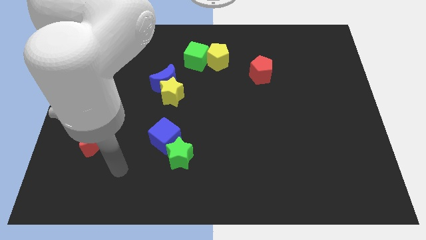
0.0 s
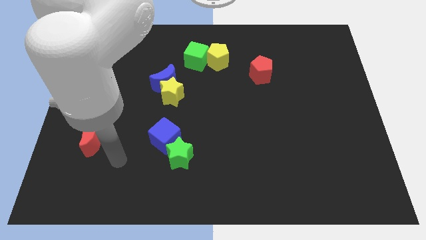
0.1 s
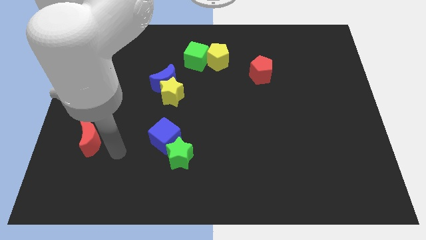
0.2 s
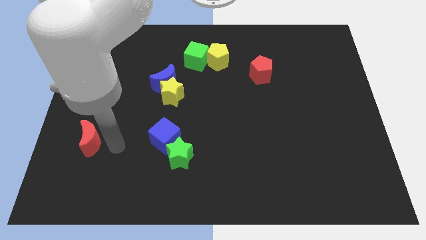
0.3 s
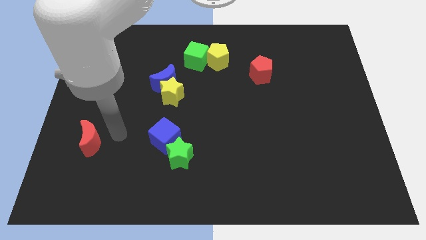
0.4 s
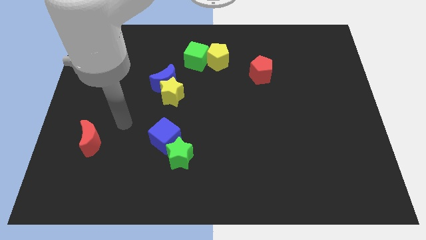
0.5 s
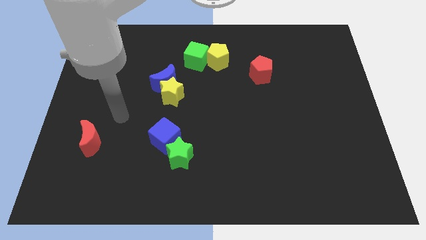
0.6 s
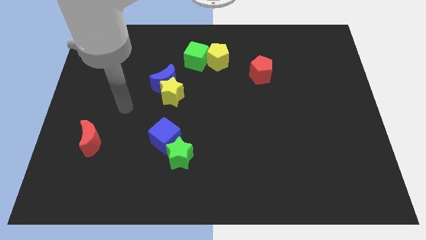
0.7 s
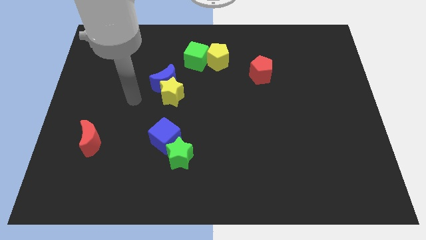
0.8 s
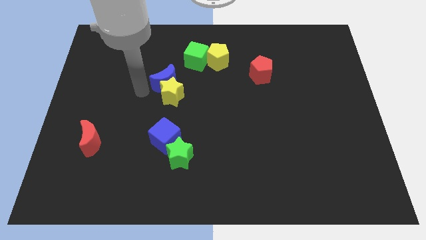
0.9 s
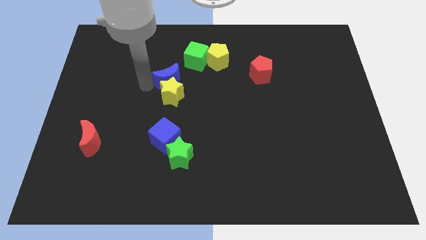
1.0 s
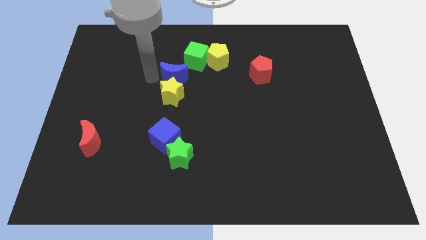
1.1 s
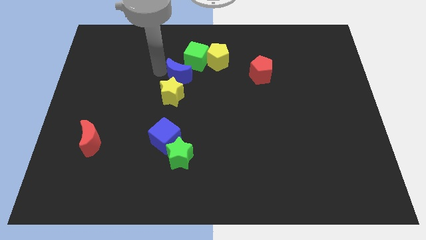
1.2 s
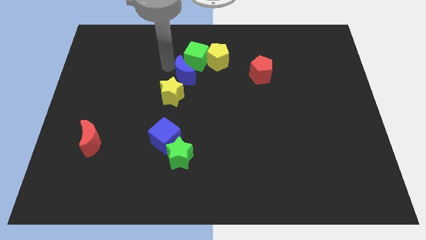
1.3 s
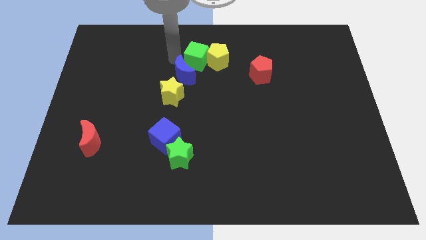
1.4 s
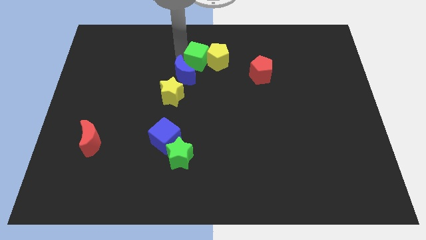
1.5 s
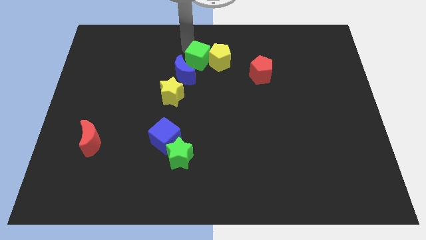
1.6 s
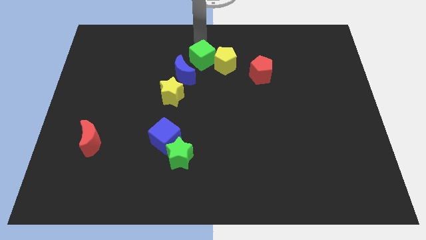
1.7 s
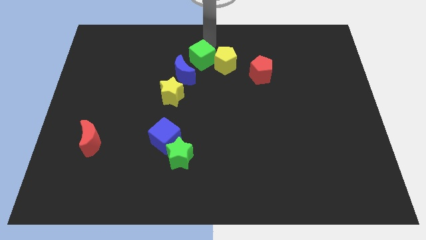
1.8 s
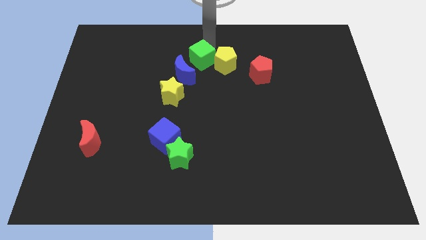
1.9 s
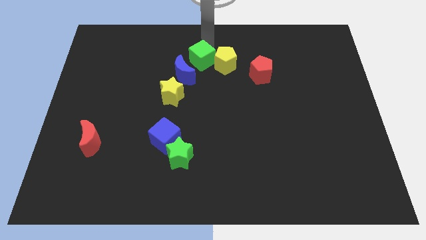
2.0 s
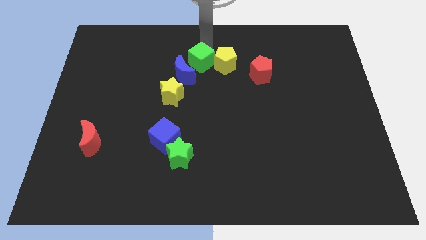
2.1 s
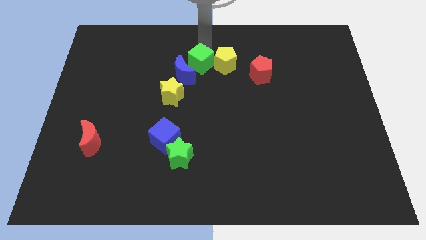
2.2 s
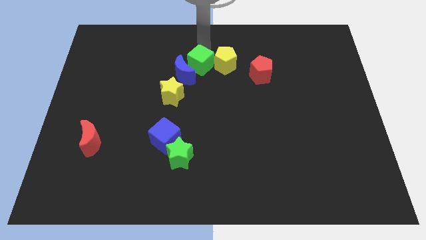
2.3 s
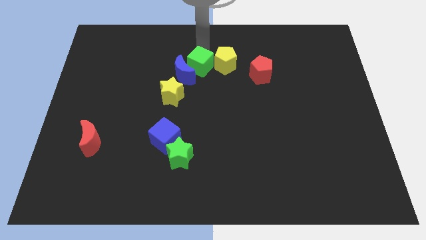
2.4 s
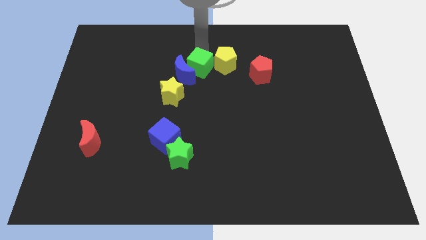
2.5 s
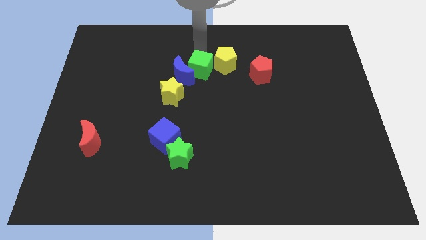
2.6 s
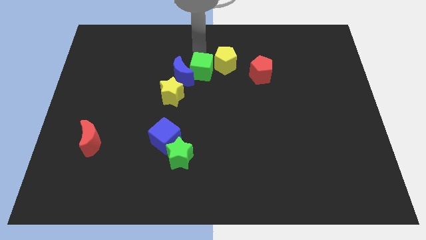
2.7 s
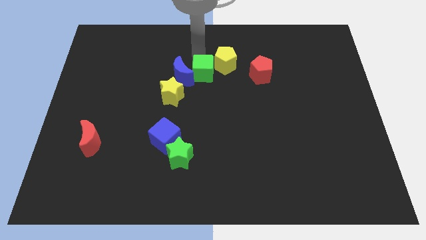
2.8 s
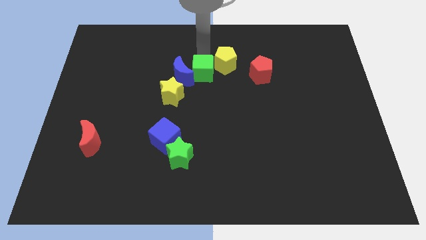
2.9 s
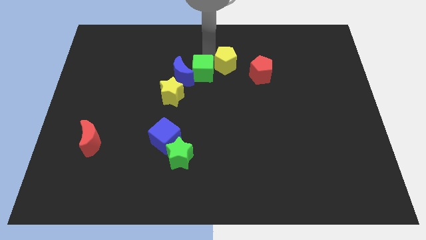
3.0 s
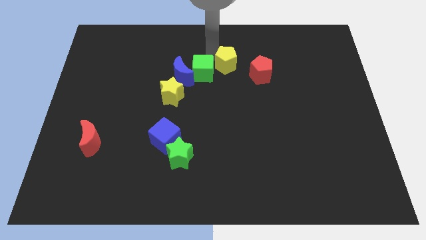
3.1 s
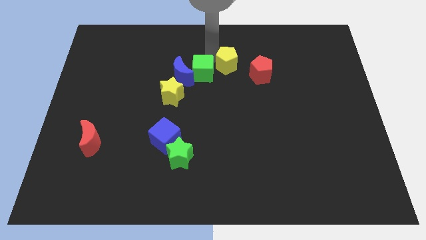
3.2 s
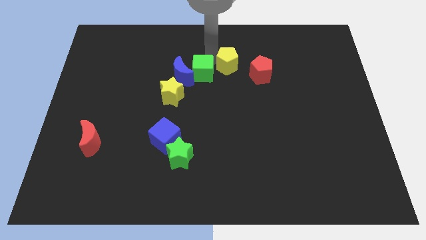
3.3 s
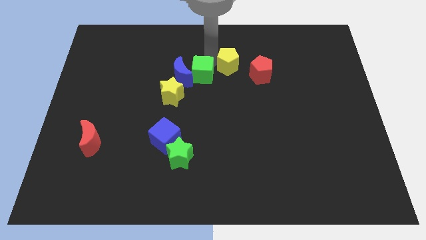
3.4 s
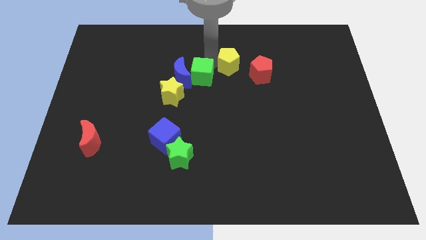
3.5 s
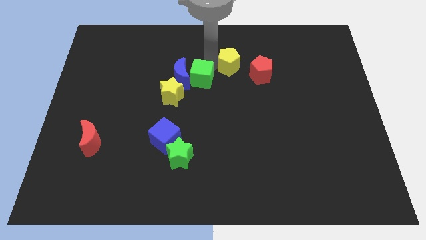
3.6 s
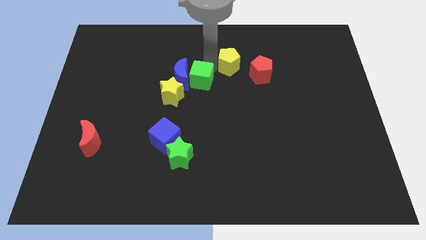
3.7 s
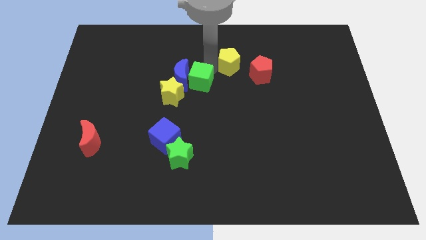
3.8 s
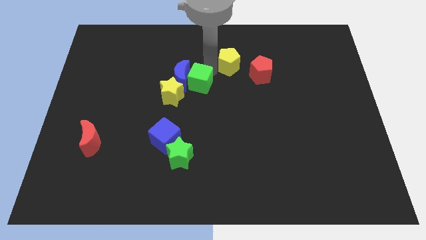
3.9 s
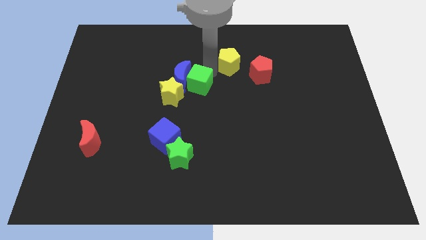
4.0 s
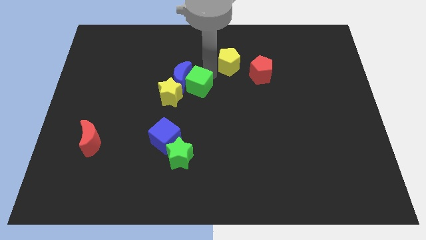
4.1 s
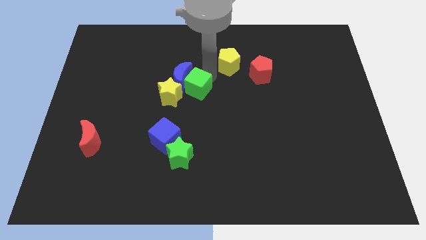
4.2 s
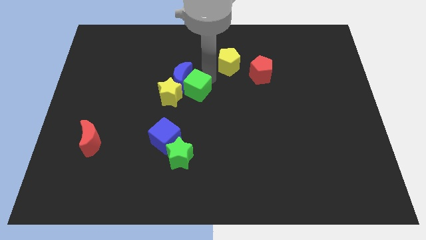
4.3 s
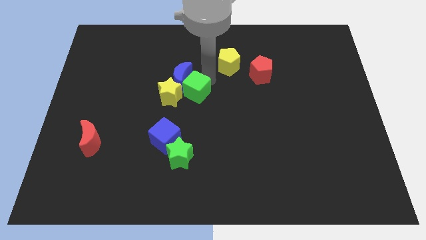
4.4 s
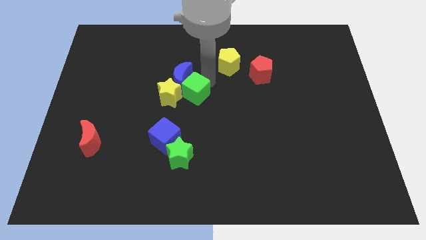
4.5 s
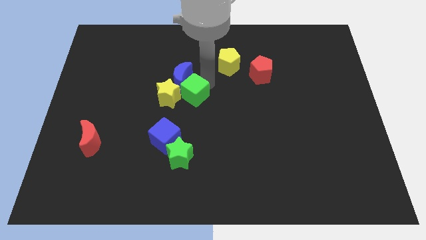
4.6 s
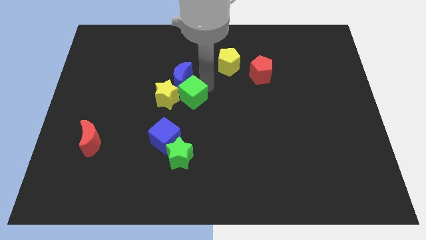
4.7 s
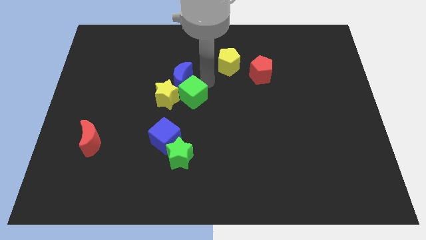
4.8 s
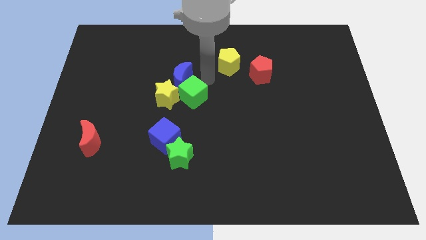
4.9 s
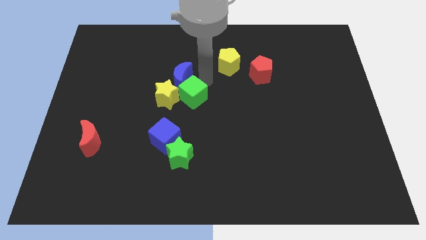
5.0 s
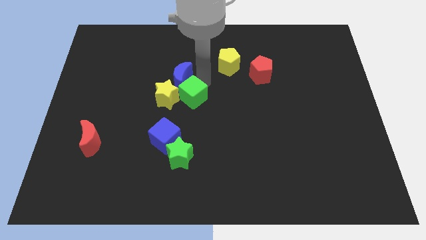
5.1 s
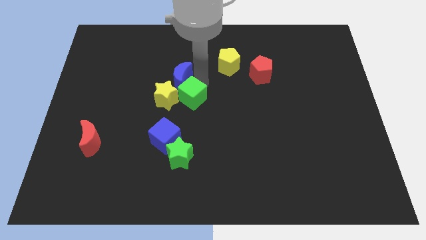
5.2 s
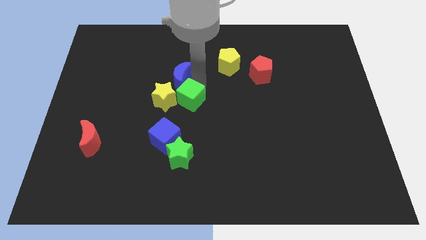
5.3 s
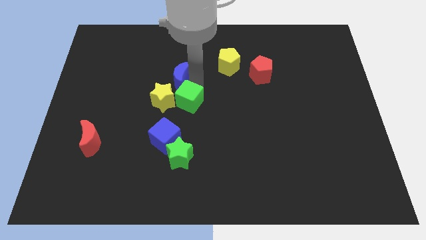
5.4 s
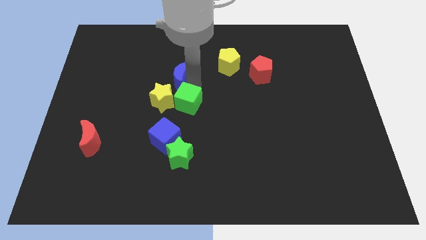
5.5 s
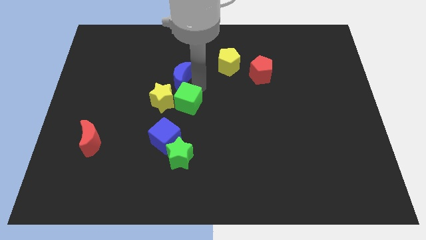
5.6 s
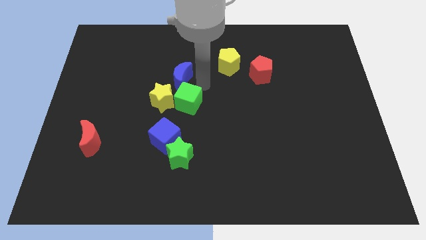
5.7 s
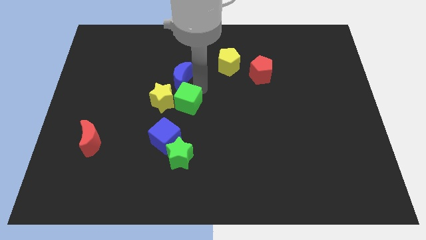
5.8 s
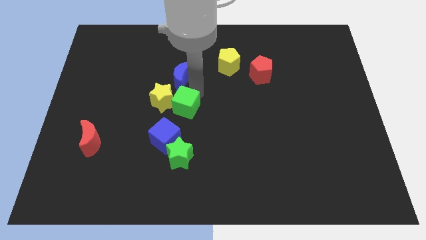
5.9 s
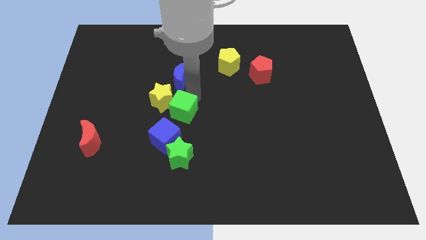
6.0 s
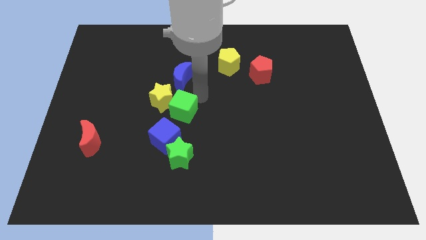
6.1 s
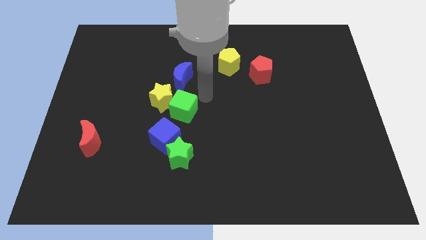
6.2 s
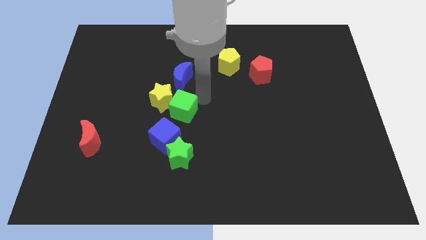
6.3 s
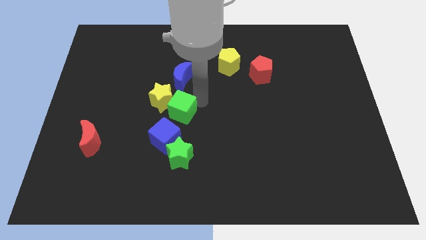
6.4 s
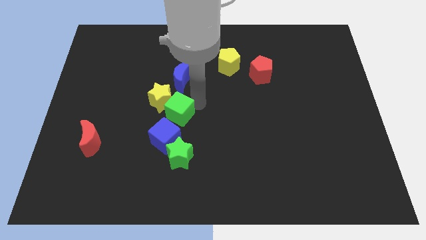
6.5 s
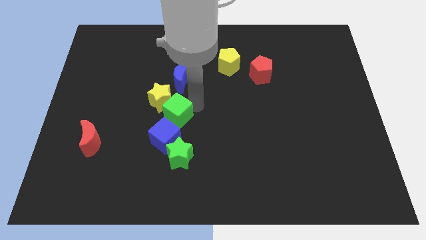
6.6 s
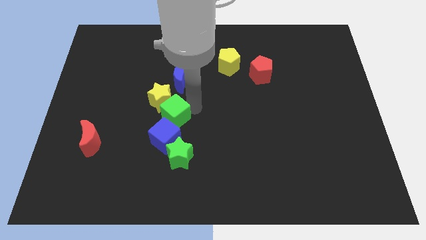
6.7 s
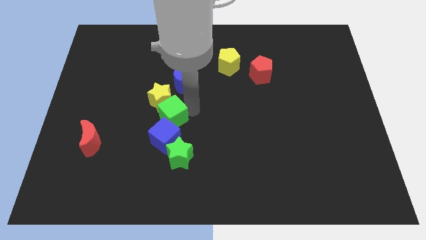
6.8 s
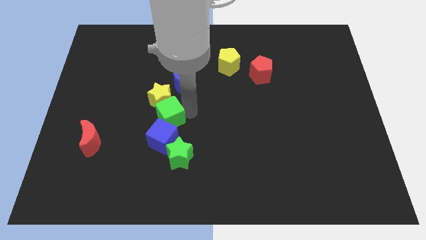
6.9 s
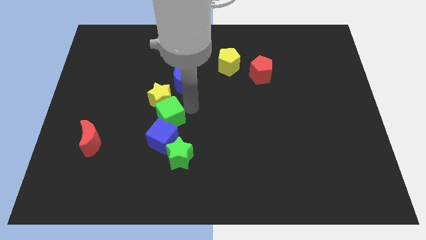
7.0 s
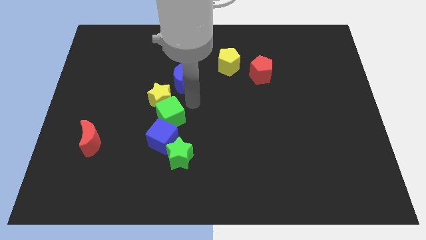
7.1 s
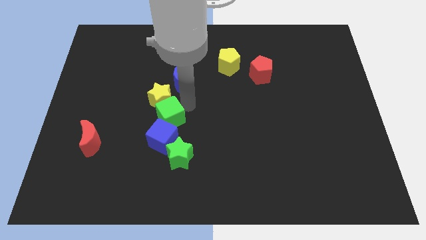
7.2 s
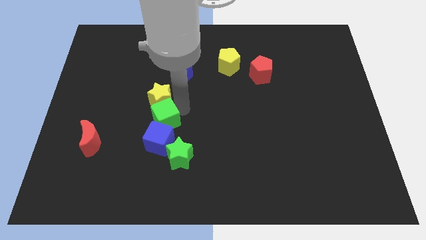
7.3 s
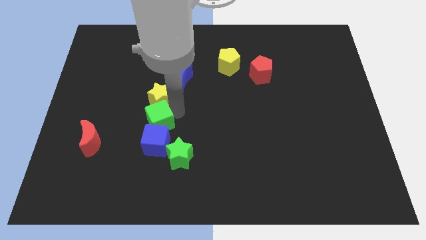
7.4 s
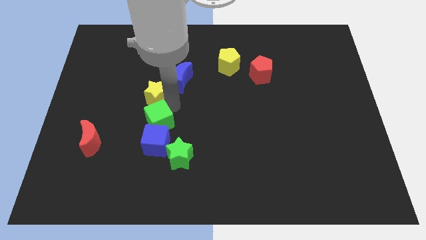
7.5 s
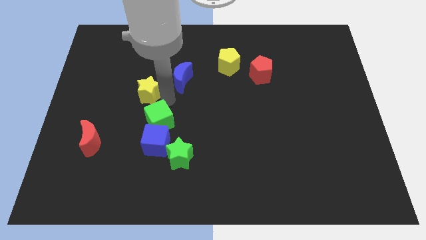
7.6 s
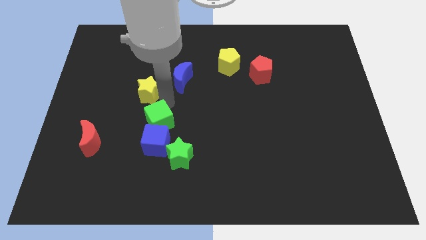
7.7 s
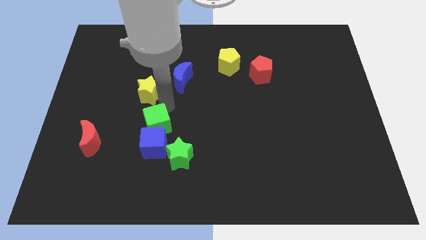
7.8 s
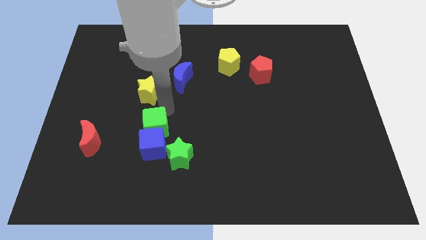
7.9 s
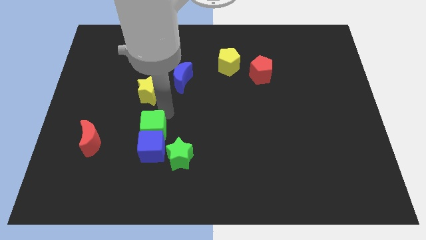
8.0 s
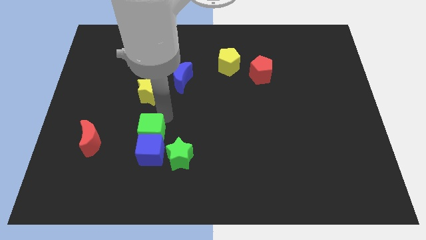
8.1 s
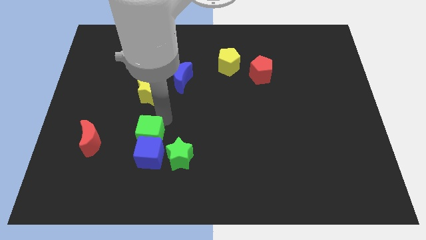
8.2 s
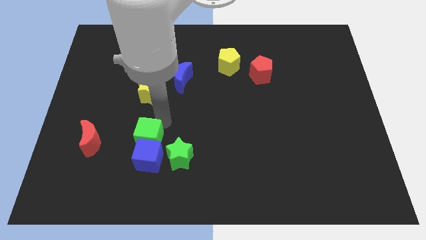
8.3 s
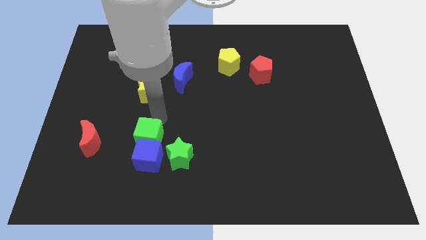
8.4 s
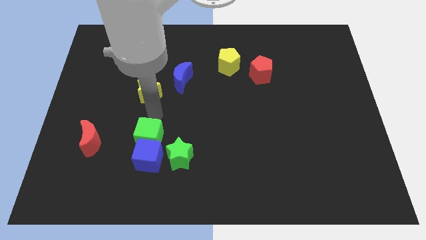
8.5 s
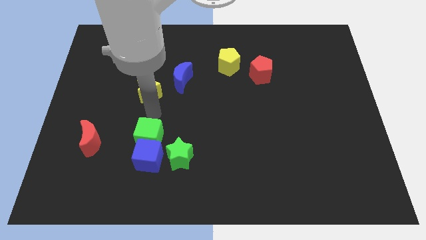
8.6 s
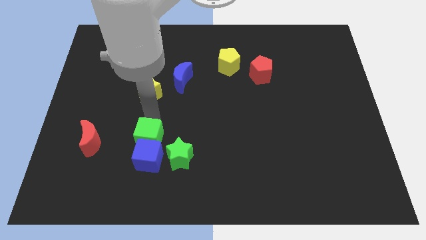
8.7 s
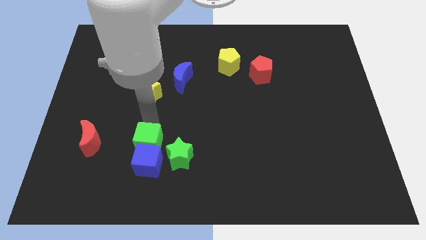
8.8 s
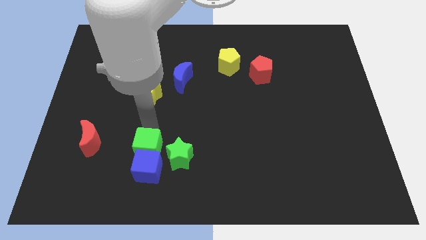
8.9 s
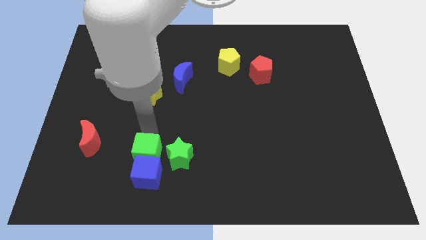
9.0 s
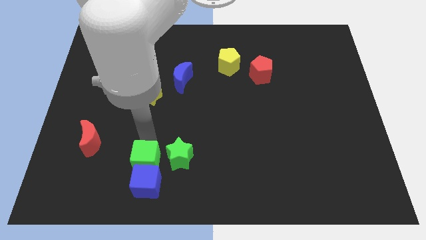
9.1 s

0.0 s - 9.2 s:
push the green cube diagonally down and to the left of the green star
